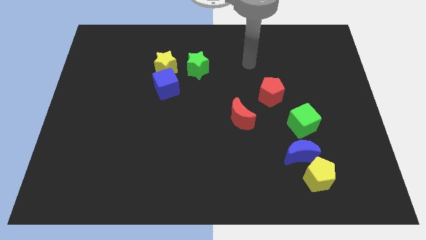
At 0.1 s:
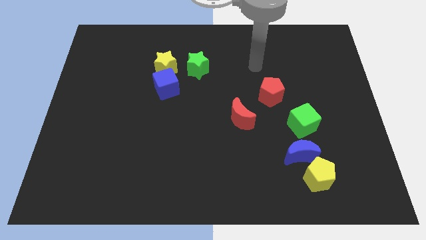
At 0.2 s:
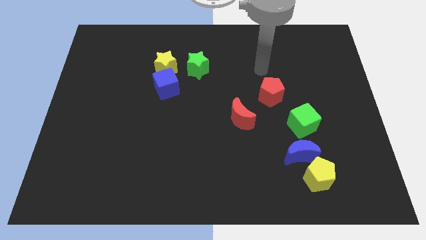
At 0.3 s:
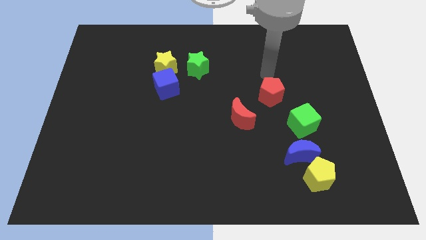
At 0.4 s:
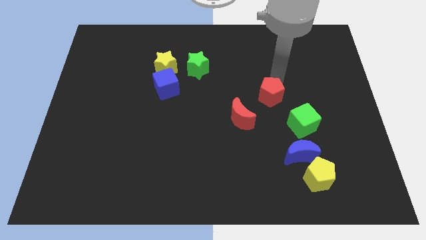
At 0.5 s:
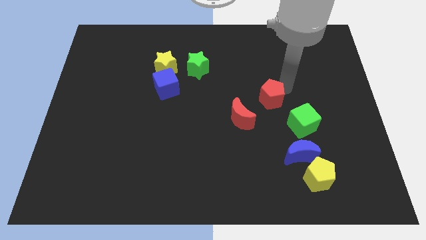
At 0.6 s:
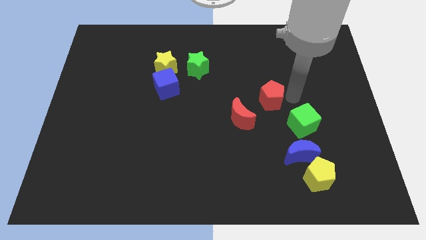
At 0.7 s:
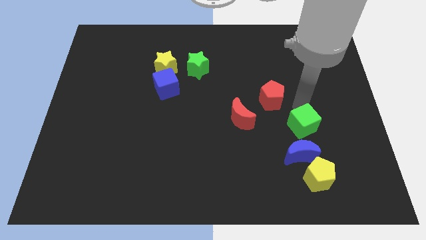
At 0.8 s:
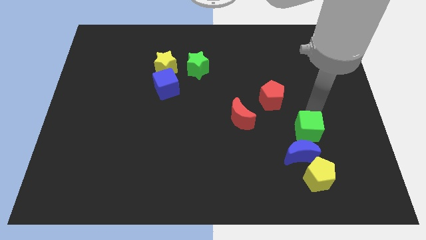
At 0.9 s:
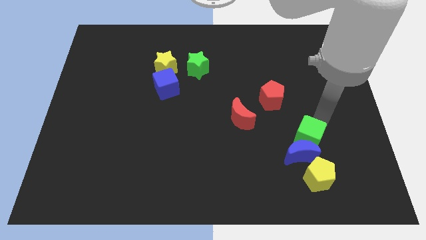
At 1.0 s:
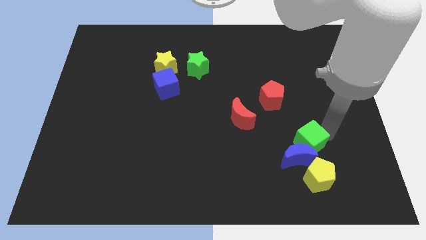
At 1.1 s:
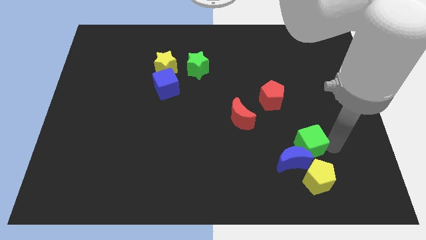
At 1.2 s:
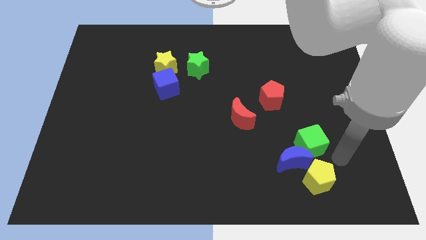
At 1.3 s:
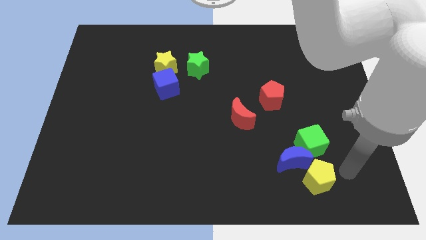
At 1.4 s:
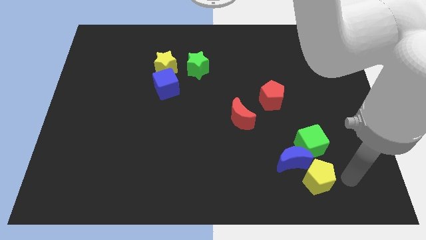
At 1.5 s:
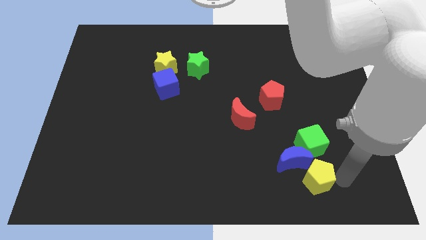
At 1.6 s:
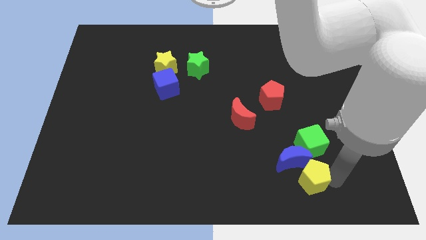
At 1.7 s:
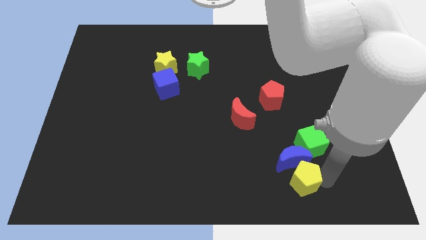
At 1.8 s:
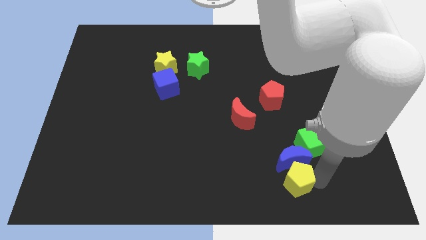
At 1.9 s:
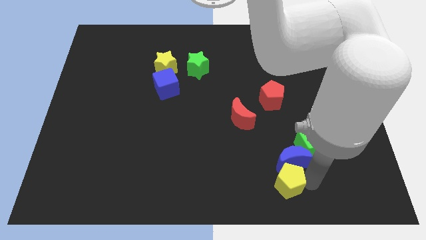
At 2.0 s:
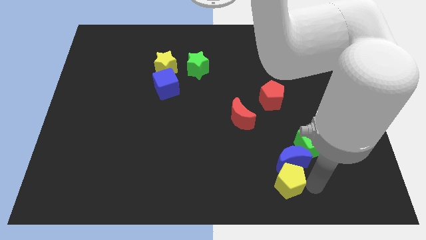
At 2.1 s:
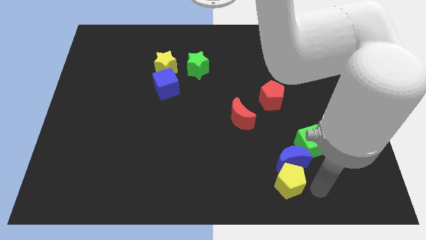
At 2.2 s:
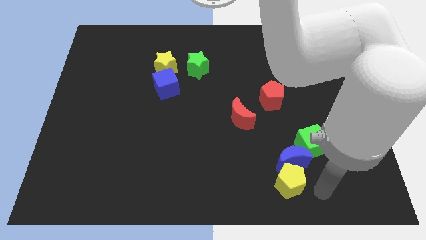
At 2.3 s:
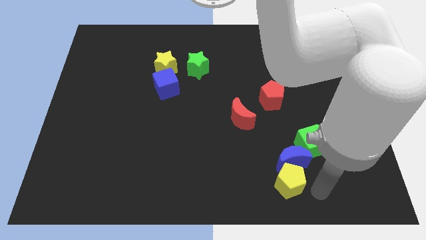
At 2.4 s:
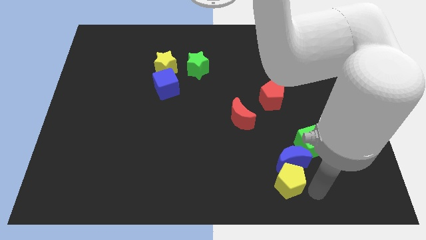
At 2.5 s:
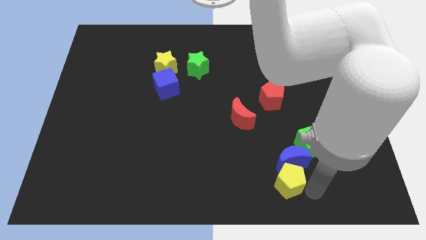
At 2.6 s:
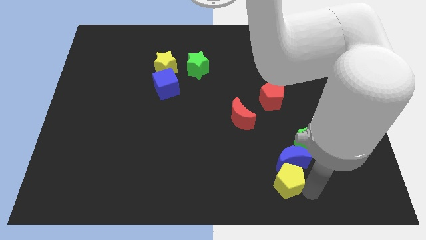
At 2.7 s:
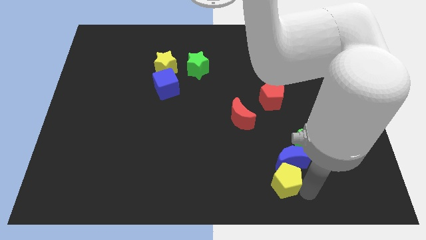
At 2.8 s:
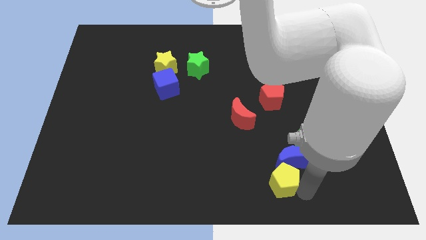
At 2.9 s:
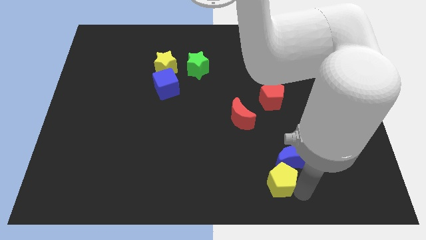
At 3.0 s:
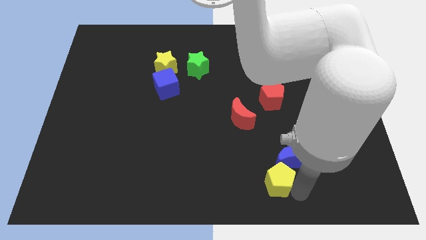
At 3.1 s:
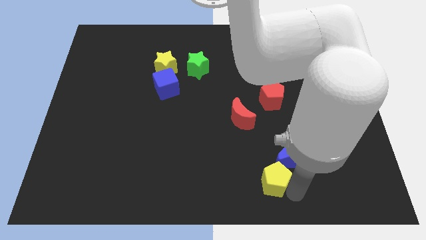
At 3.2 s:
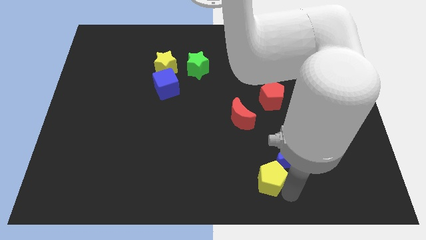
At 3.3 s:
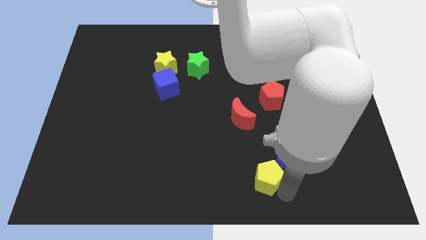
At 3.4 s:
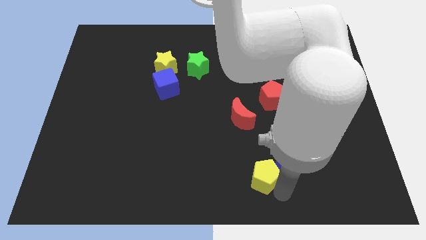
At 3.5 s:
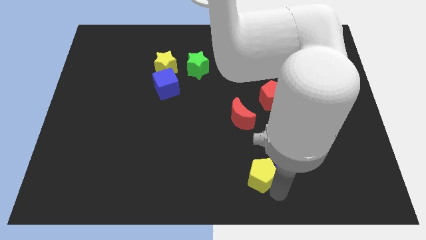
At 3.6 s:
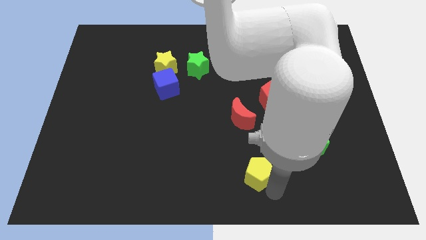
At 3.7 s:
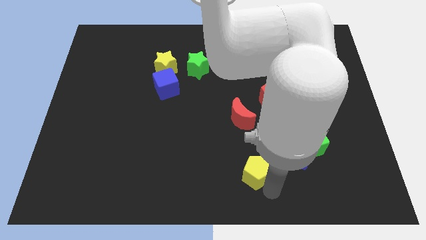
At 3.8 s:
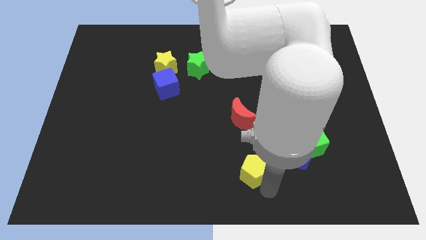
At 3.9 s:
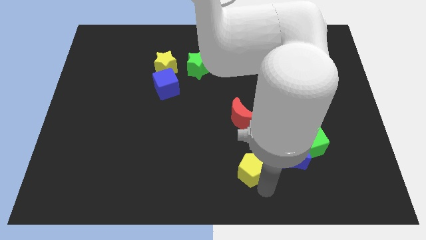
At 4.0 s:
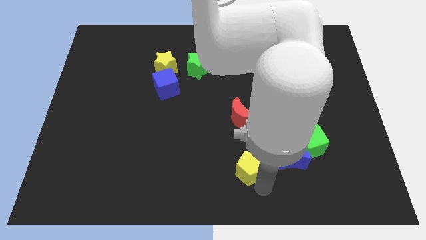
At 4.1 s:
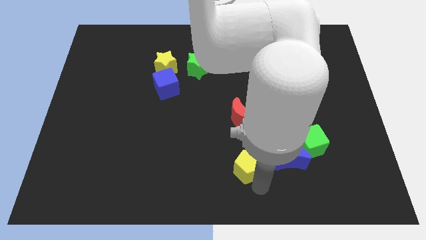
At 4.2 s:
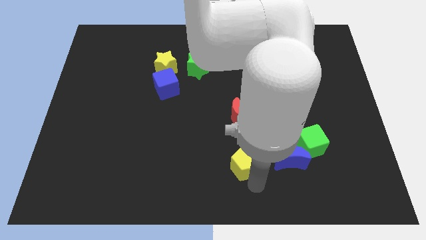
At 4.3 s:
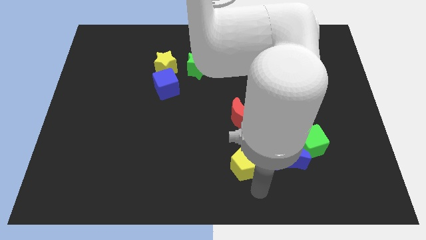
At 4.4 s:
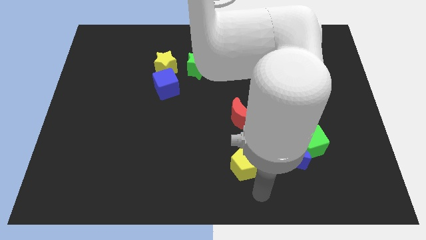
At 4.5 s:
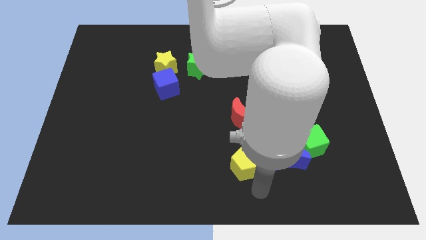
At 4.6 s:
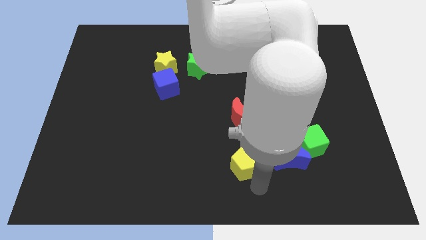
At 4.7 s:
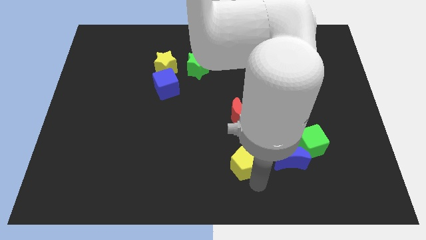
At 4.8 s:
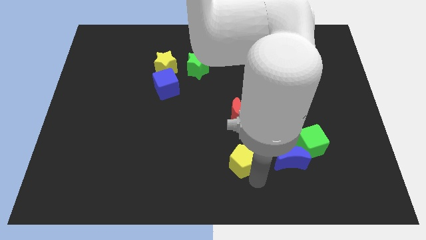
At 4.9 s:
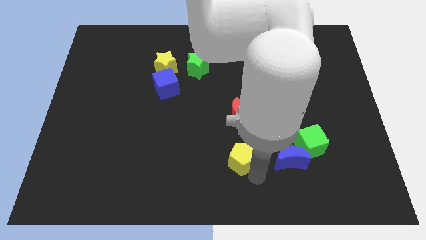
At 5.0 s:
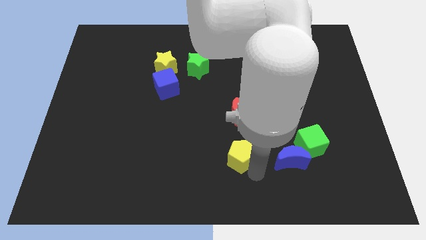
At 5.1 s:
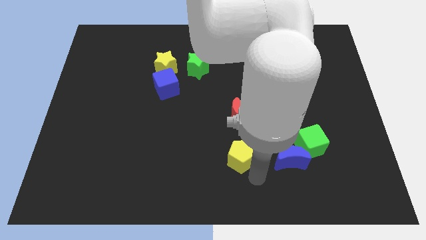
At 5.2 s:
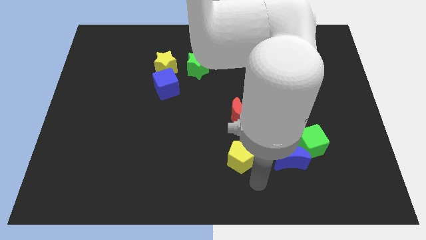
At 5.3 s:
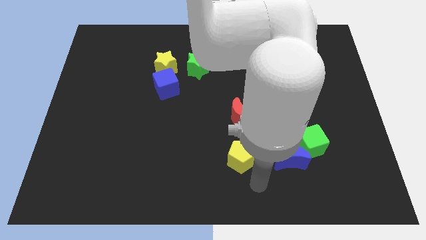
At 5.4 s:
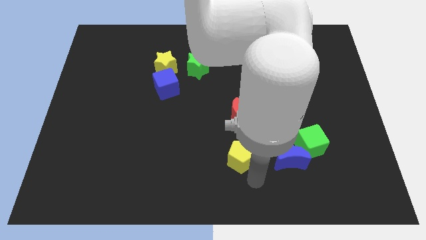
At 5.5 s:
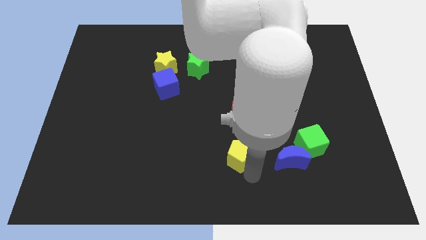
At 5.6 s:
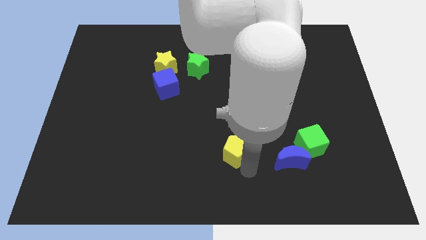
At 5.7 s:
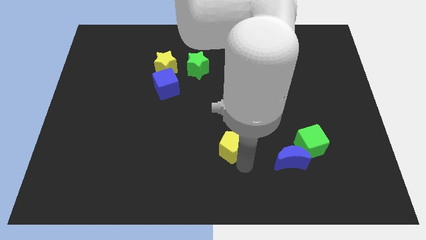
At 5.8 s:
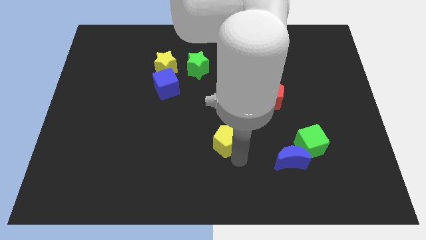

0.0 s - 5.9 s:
push the yellow pentagon to the middle

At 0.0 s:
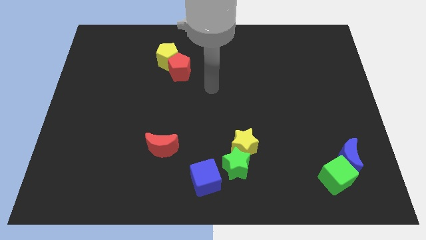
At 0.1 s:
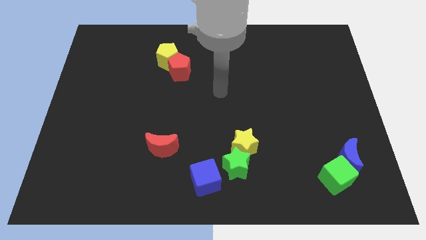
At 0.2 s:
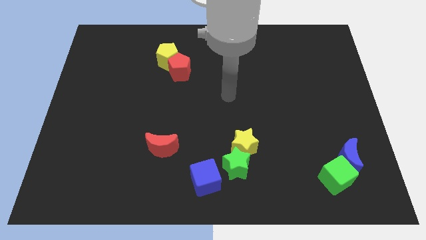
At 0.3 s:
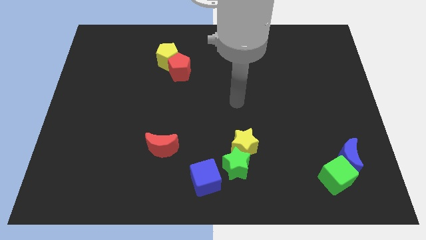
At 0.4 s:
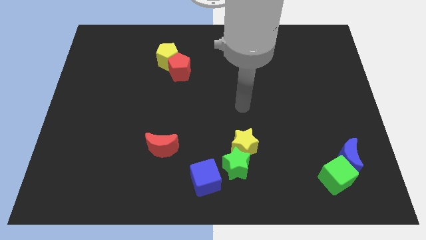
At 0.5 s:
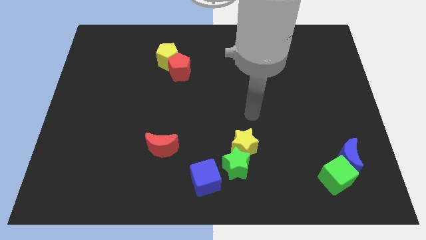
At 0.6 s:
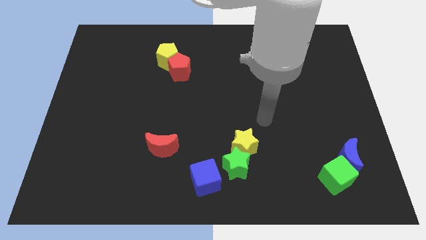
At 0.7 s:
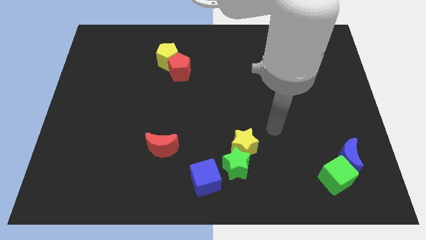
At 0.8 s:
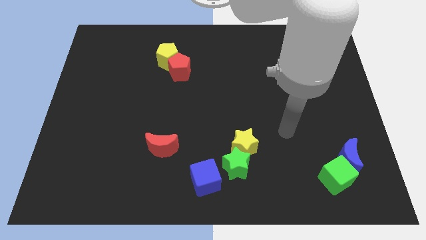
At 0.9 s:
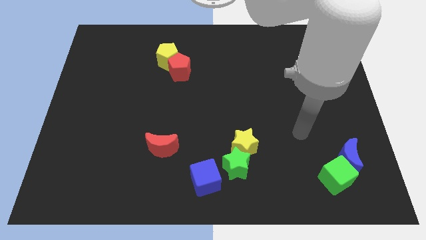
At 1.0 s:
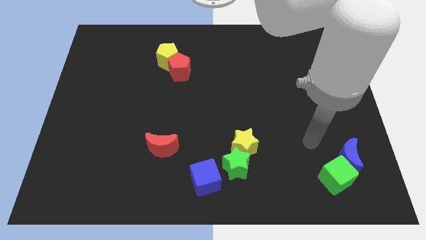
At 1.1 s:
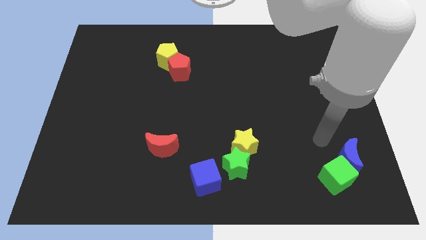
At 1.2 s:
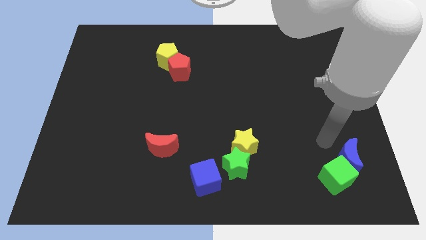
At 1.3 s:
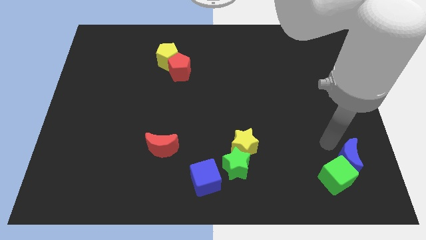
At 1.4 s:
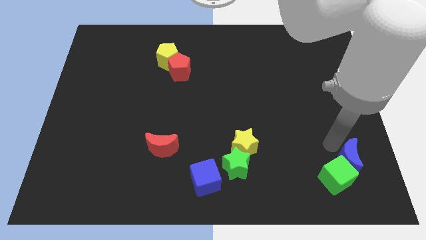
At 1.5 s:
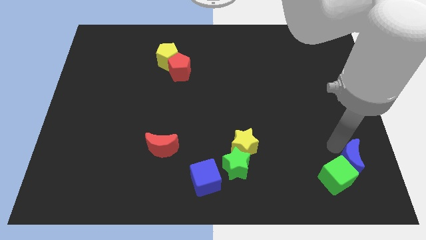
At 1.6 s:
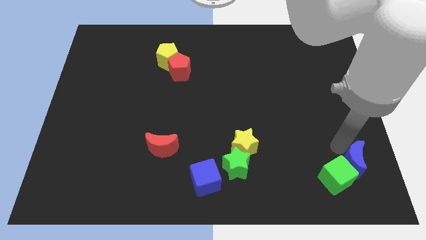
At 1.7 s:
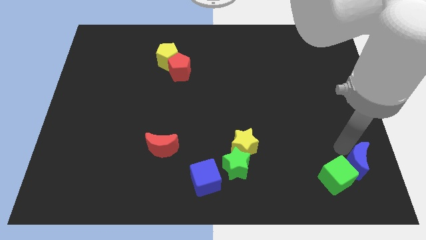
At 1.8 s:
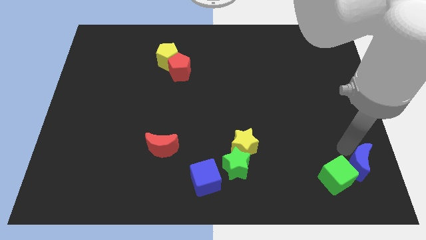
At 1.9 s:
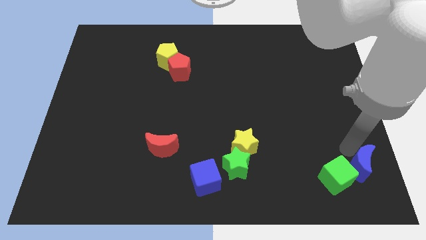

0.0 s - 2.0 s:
slide the blue moon to the bottom right corner
